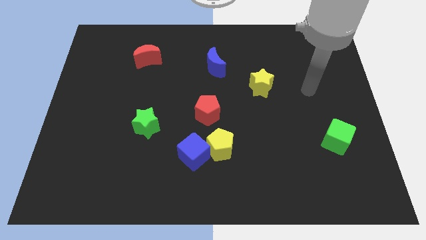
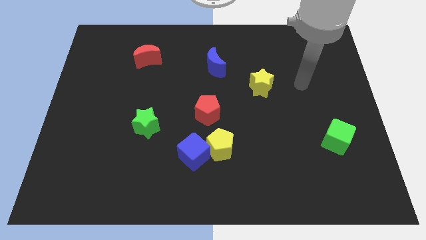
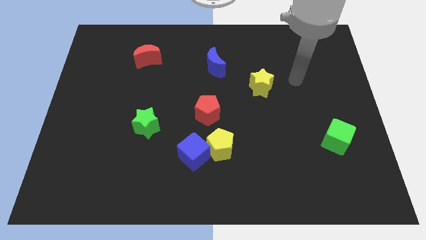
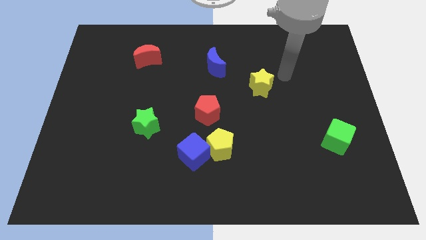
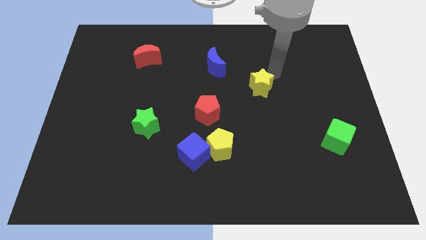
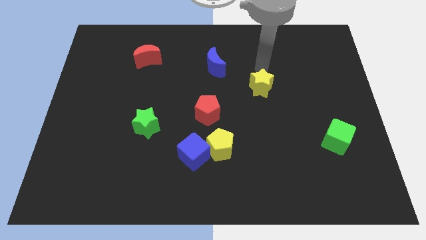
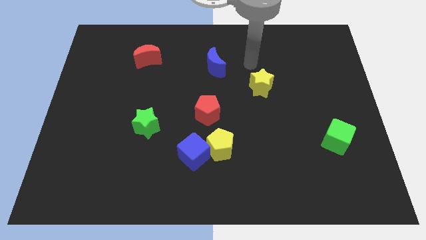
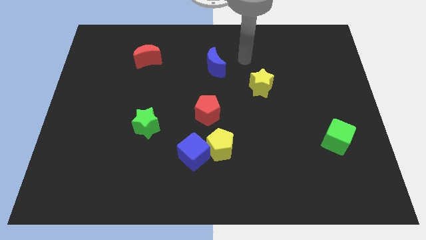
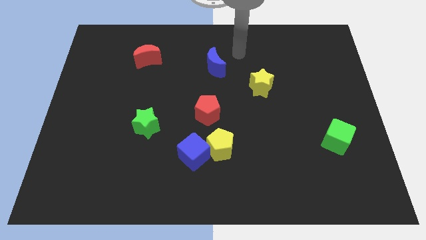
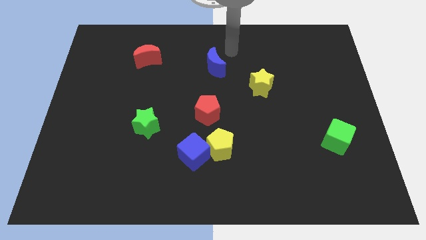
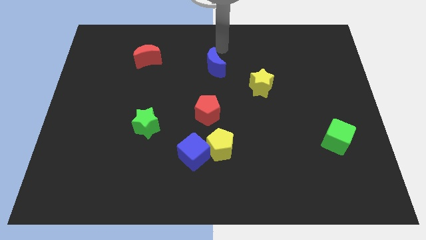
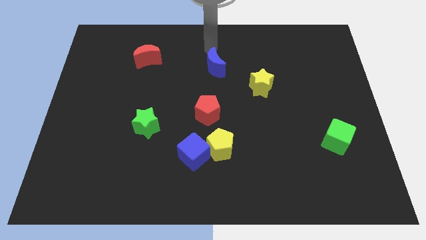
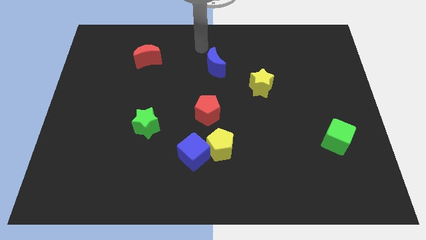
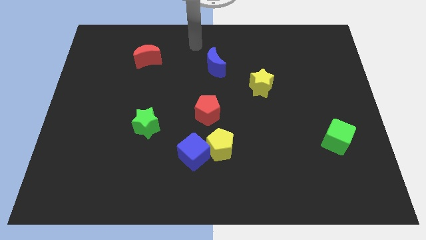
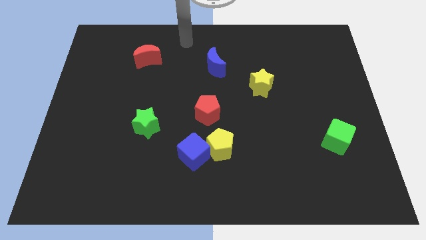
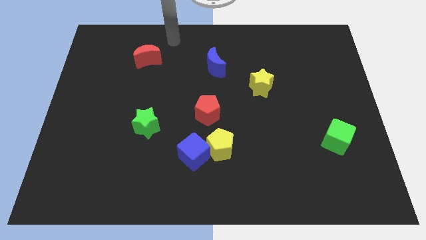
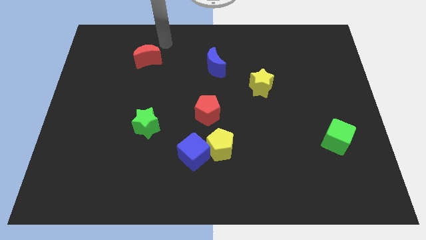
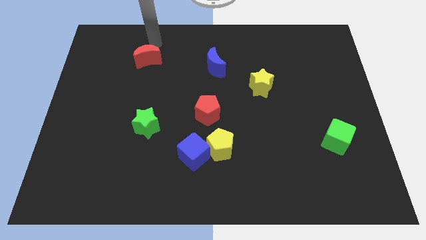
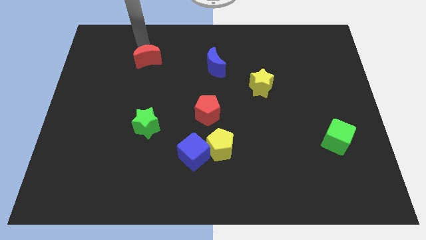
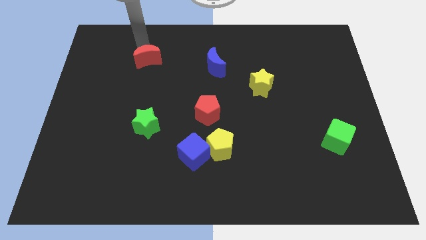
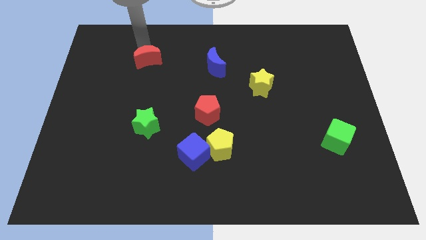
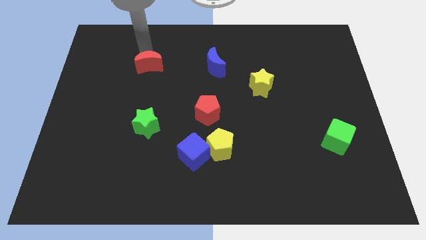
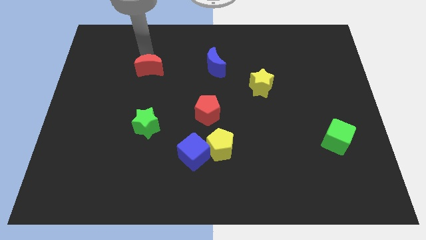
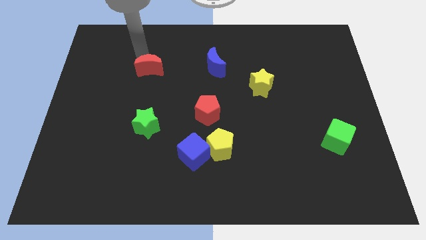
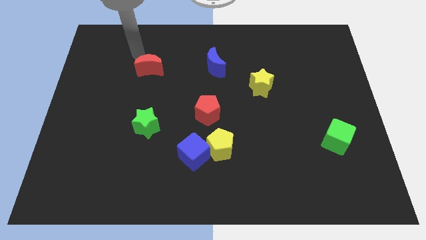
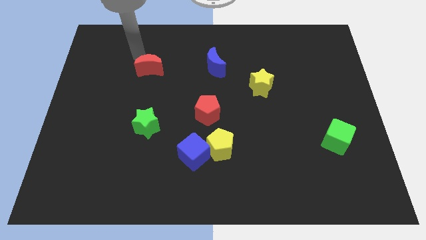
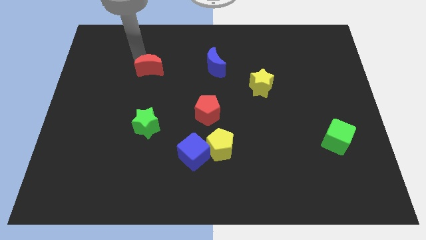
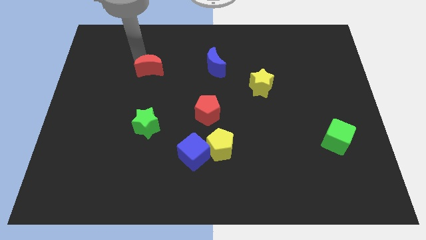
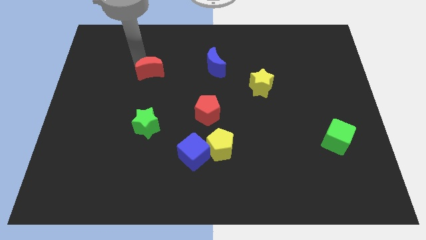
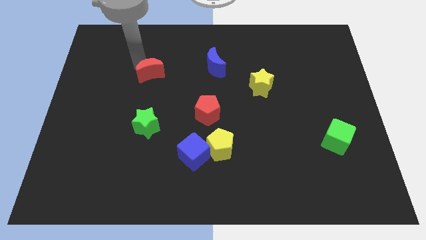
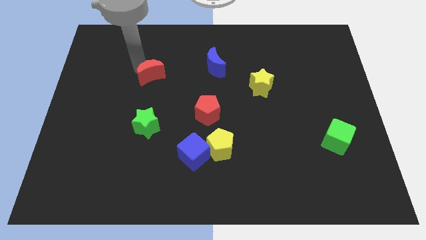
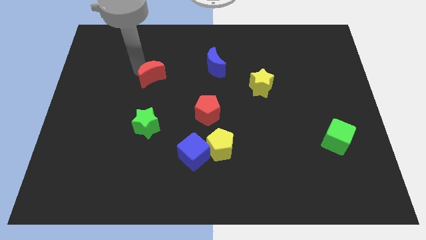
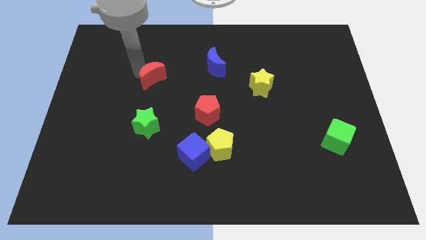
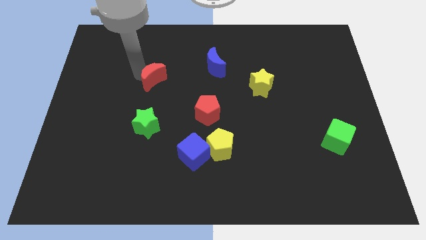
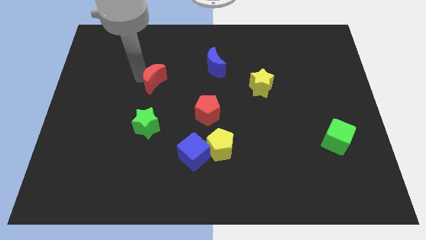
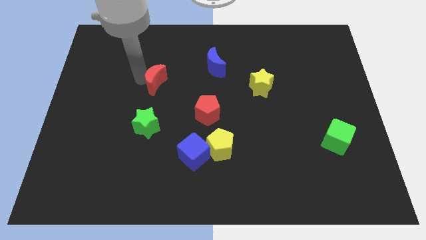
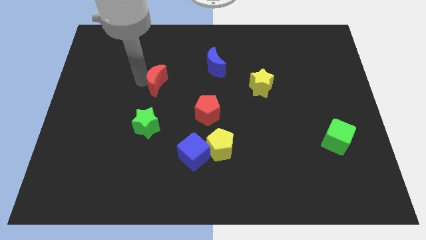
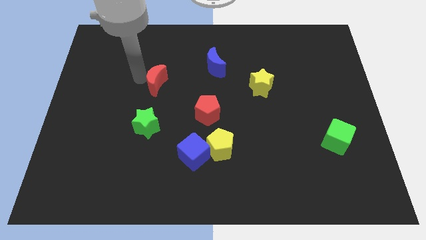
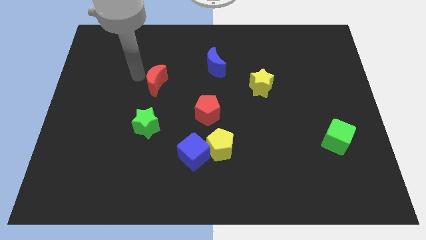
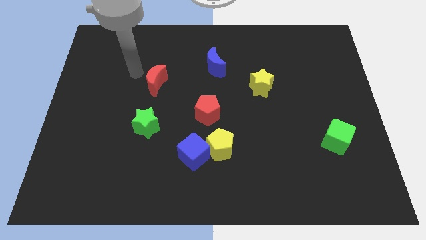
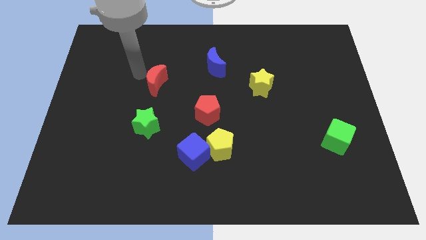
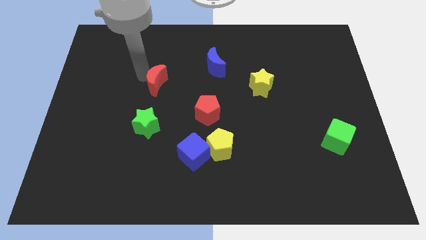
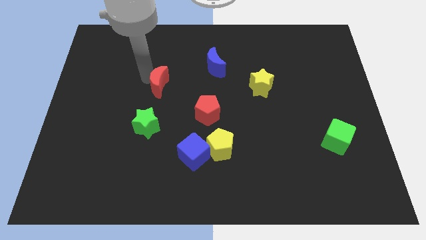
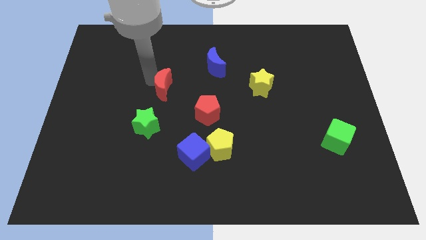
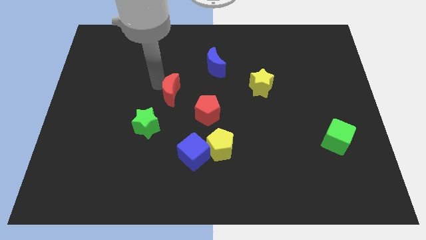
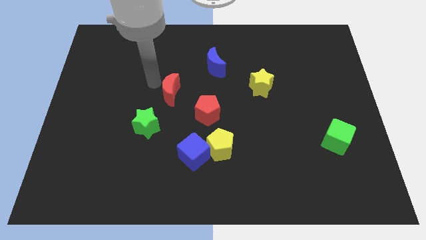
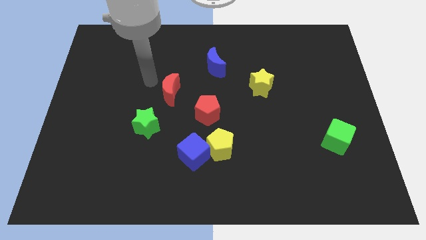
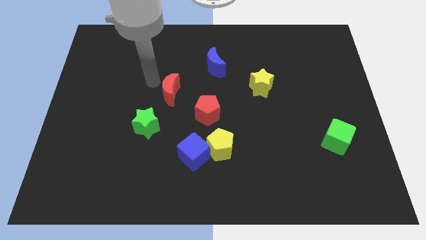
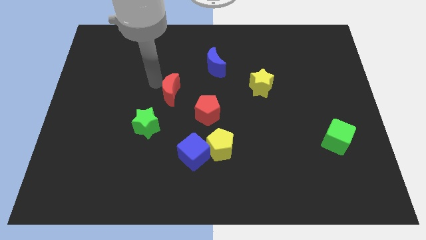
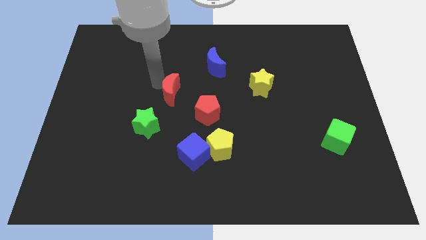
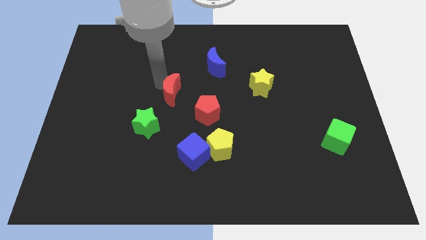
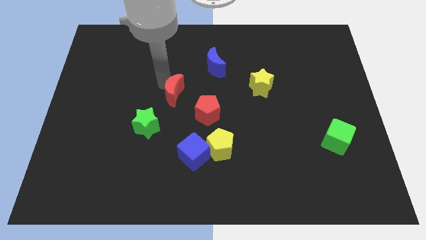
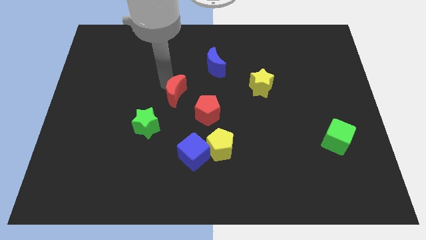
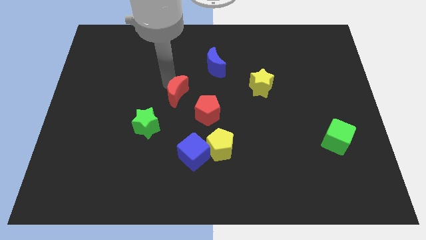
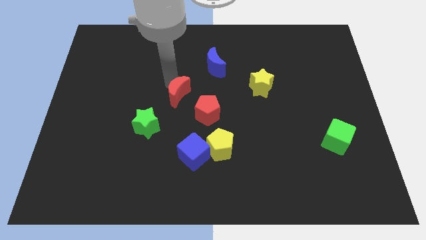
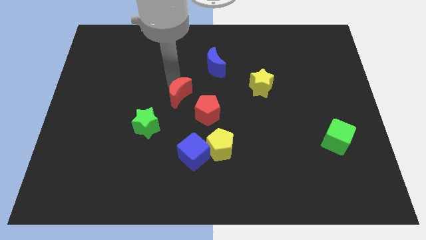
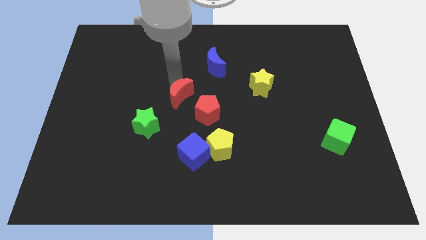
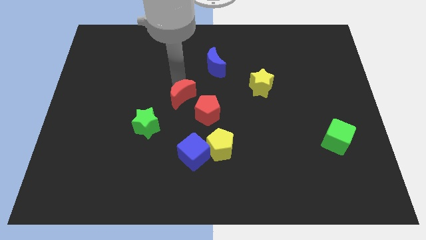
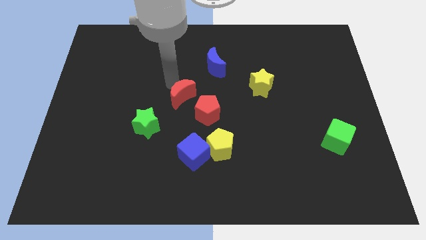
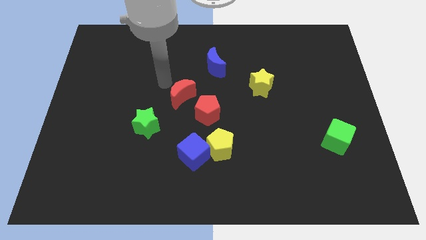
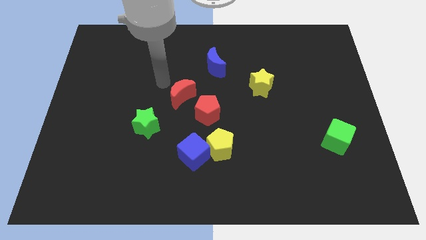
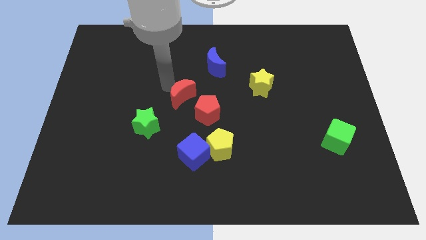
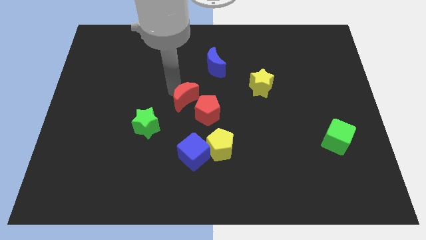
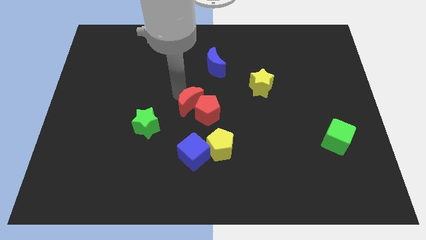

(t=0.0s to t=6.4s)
slide the red moon next to the red pentagon
